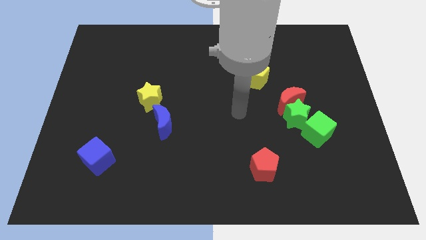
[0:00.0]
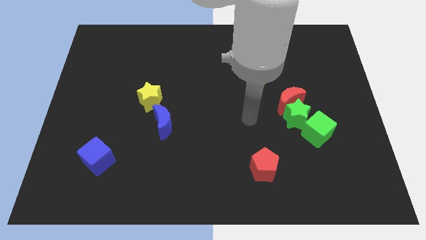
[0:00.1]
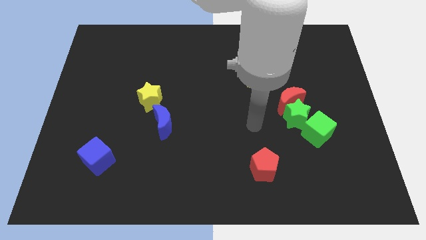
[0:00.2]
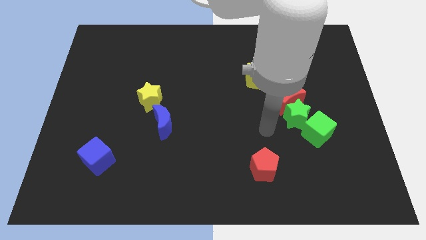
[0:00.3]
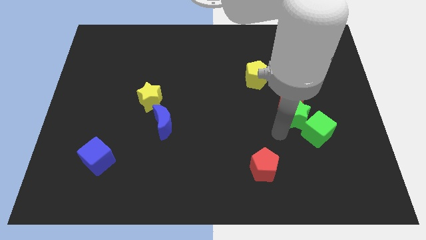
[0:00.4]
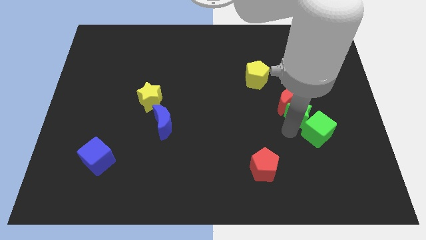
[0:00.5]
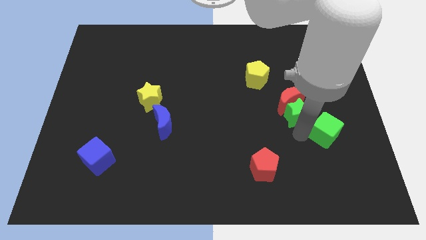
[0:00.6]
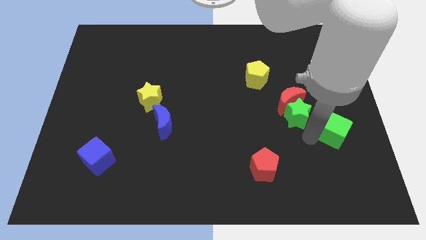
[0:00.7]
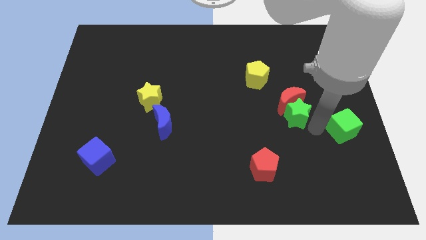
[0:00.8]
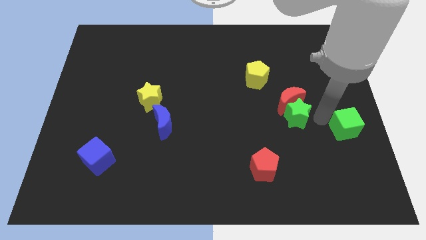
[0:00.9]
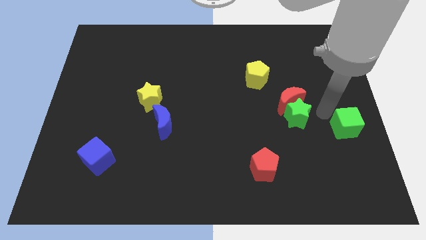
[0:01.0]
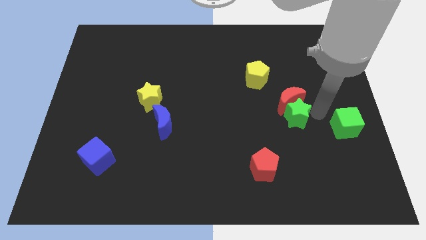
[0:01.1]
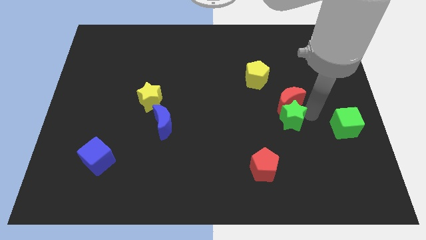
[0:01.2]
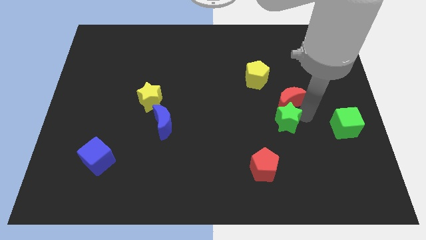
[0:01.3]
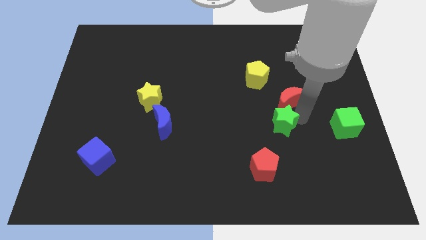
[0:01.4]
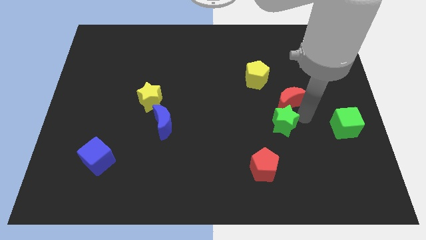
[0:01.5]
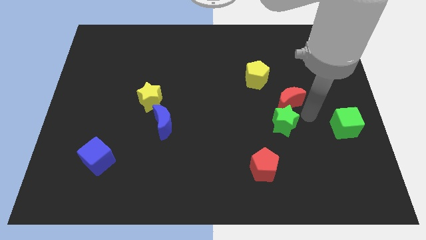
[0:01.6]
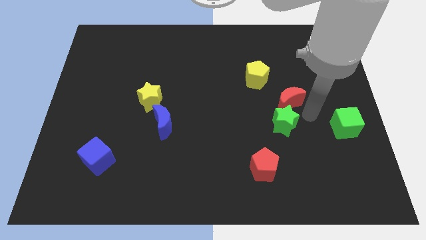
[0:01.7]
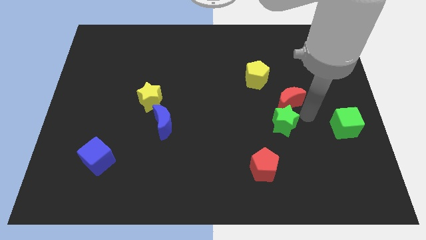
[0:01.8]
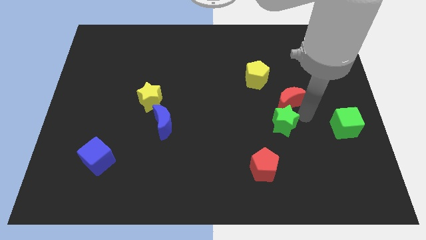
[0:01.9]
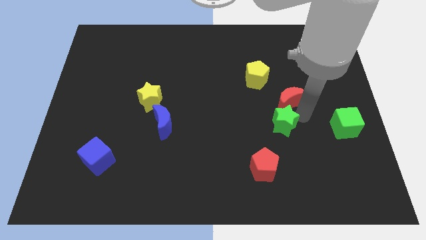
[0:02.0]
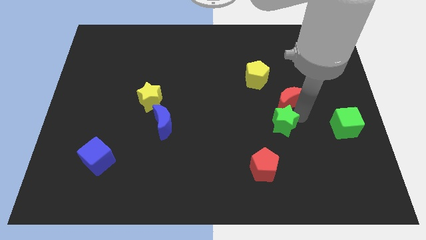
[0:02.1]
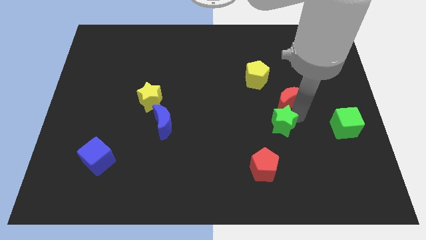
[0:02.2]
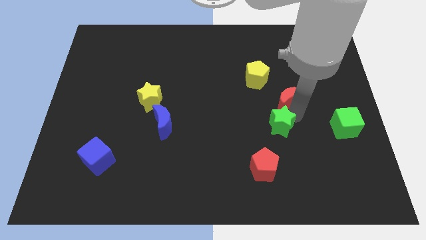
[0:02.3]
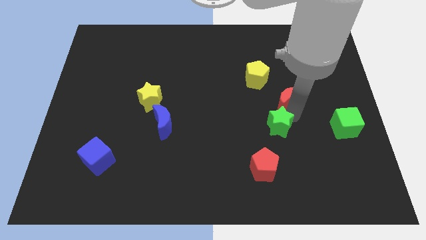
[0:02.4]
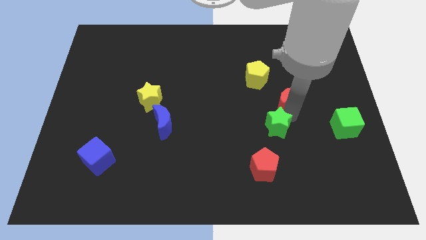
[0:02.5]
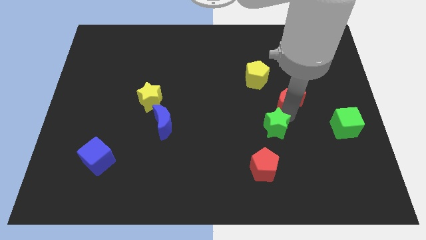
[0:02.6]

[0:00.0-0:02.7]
move the green star away from the red moon and green cube

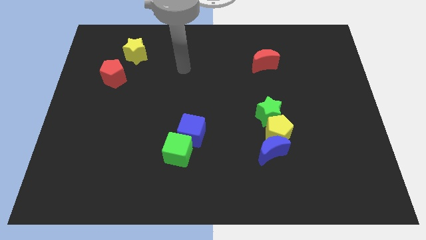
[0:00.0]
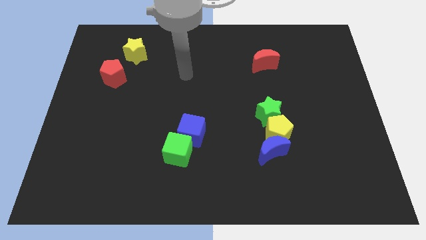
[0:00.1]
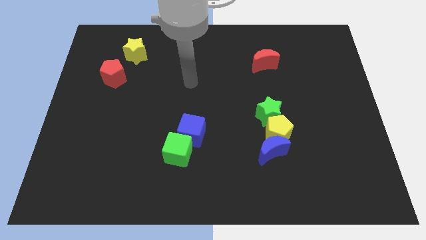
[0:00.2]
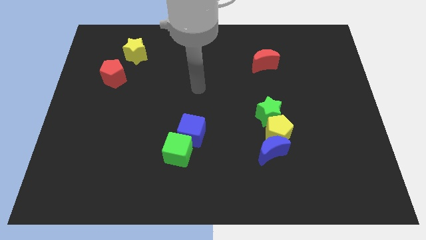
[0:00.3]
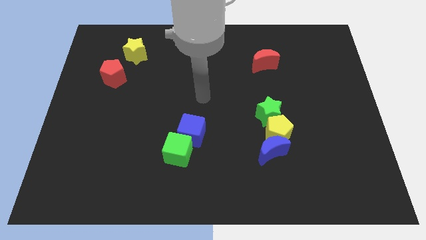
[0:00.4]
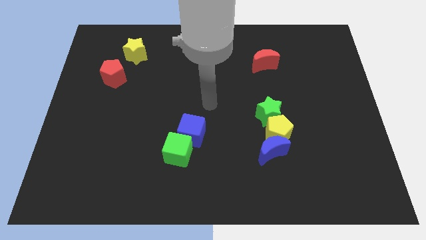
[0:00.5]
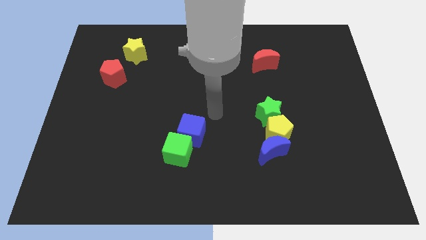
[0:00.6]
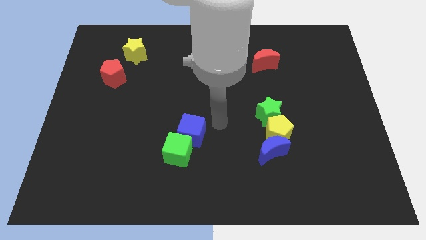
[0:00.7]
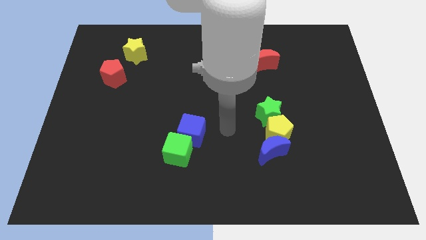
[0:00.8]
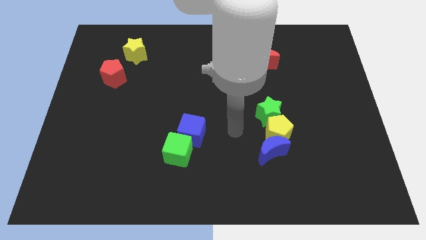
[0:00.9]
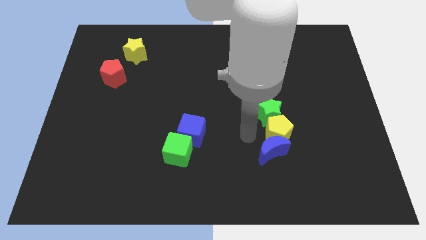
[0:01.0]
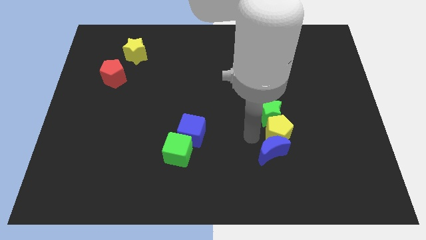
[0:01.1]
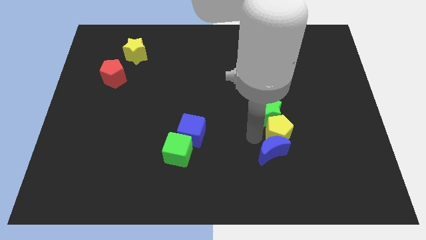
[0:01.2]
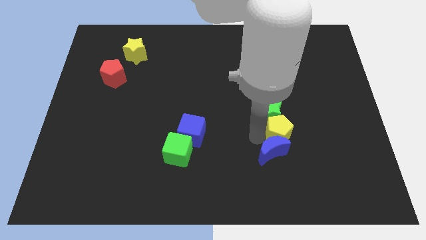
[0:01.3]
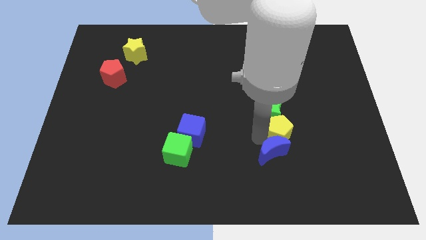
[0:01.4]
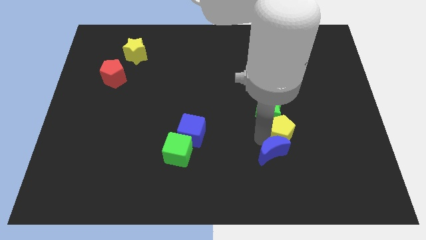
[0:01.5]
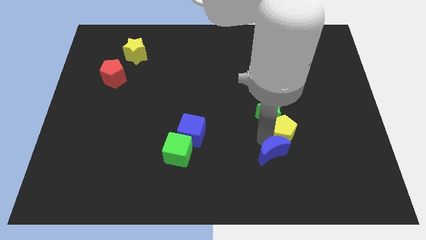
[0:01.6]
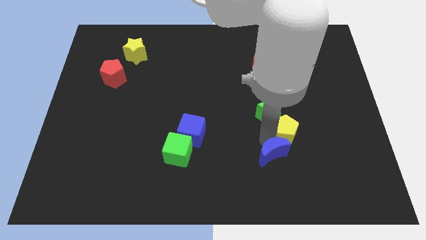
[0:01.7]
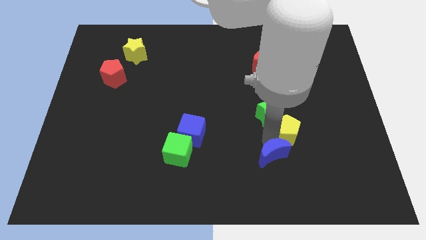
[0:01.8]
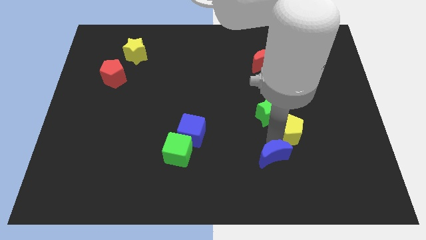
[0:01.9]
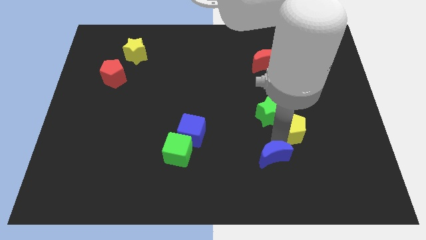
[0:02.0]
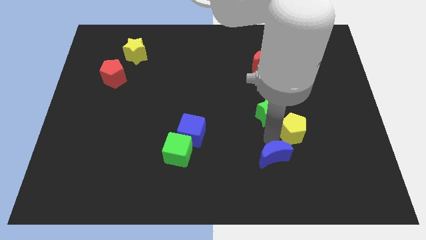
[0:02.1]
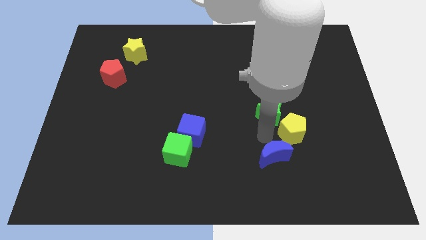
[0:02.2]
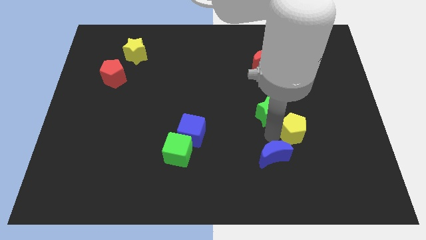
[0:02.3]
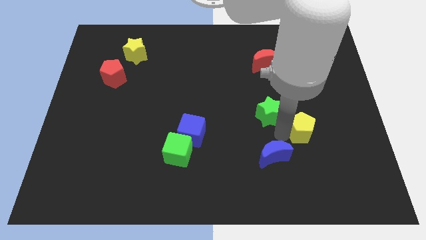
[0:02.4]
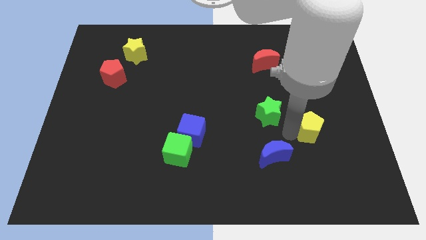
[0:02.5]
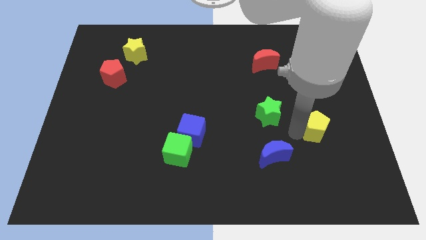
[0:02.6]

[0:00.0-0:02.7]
separate the yellow pentagon from the blue moon and green star

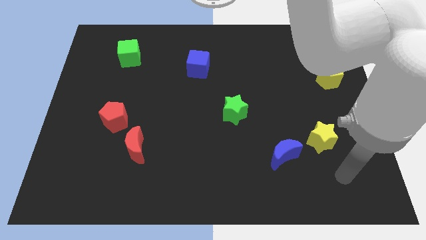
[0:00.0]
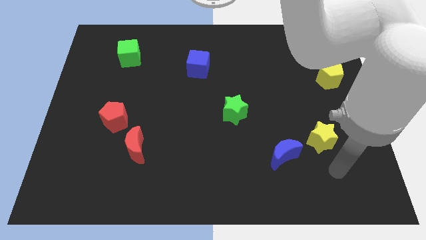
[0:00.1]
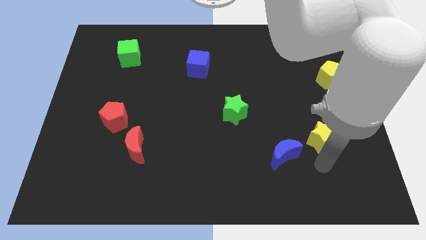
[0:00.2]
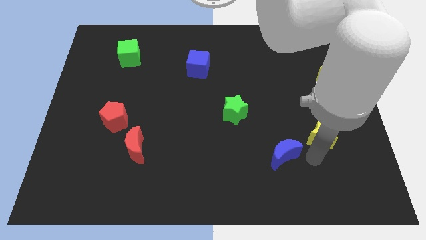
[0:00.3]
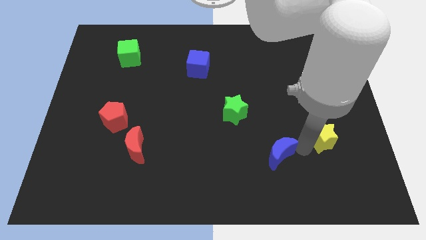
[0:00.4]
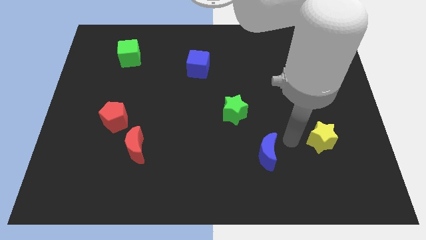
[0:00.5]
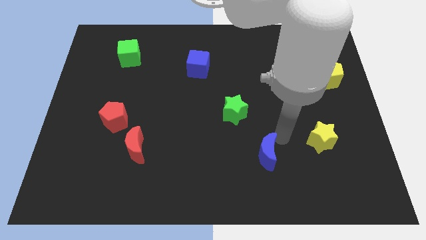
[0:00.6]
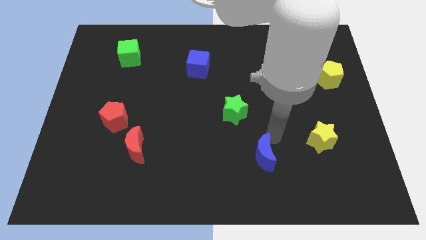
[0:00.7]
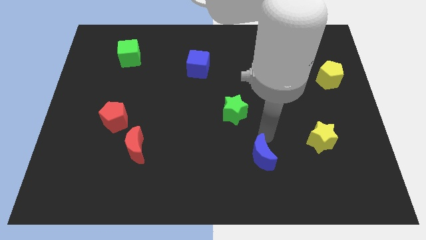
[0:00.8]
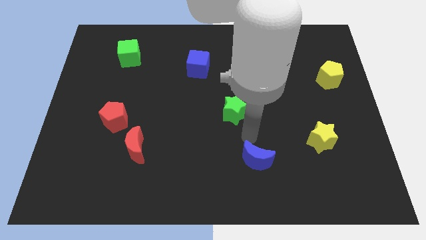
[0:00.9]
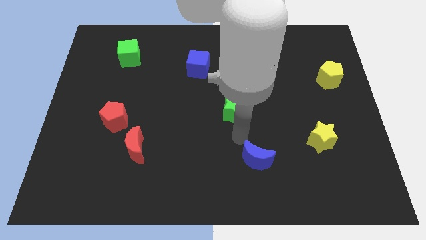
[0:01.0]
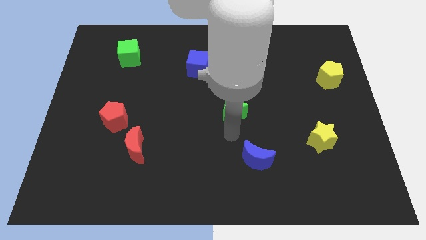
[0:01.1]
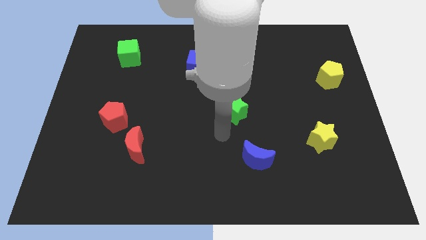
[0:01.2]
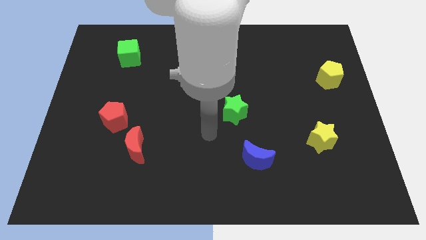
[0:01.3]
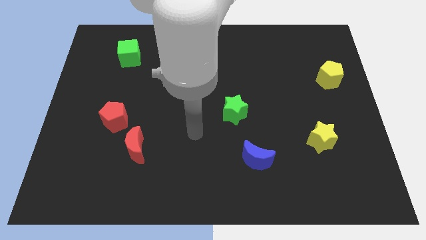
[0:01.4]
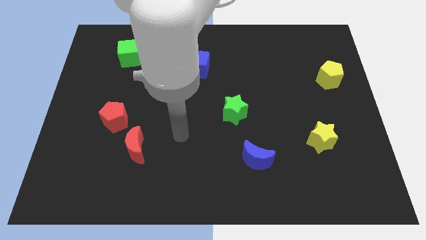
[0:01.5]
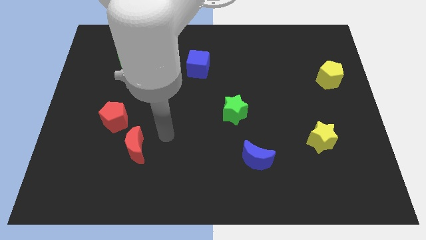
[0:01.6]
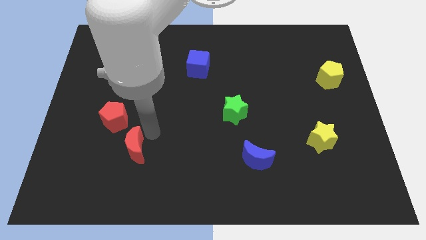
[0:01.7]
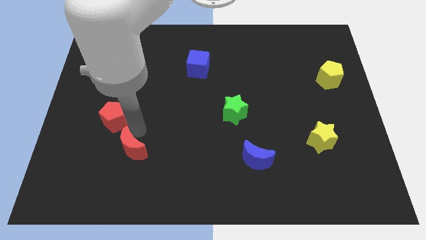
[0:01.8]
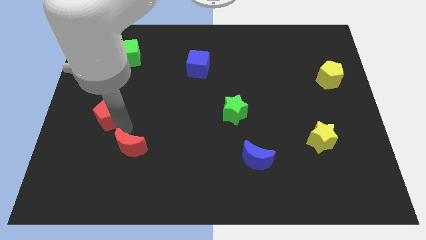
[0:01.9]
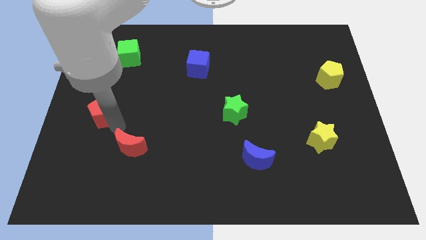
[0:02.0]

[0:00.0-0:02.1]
pull the red moon apart from the red pentagon

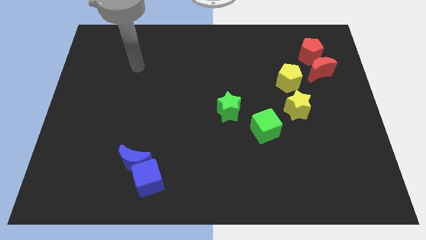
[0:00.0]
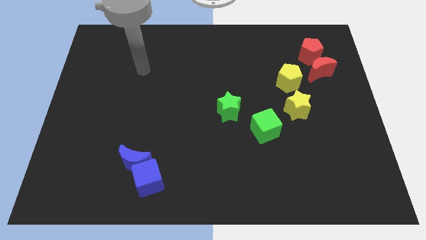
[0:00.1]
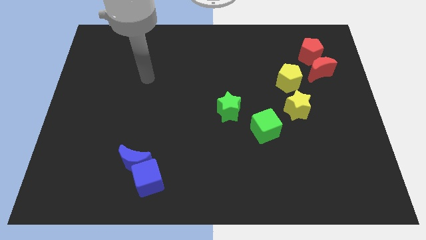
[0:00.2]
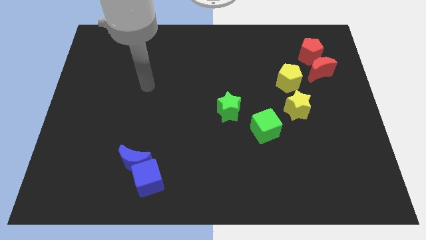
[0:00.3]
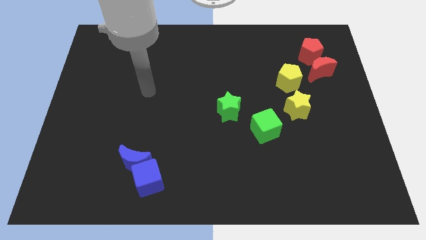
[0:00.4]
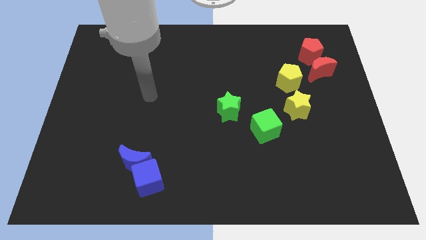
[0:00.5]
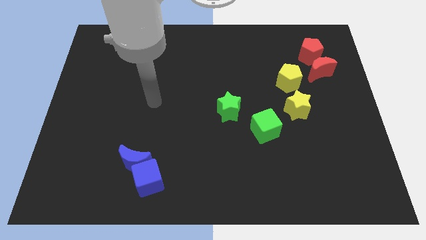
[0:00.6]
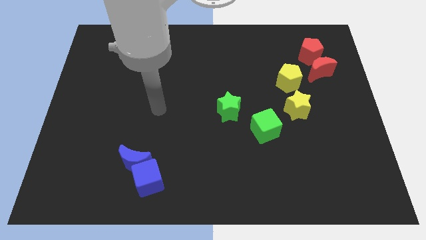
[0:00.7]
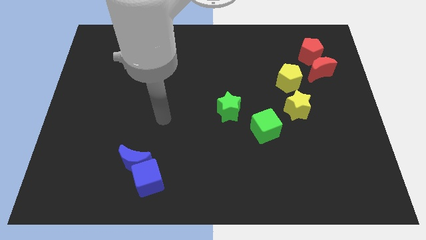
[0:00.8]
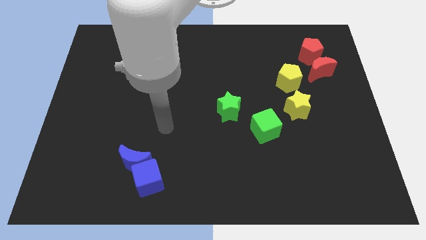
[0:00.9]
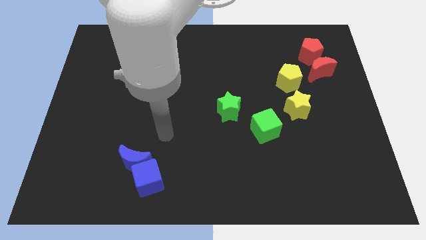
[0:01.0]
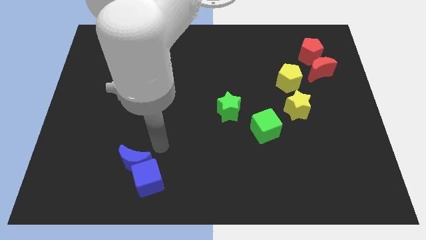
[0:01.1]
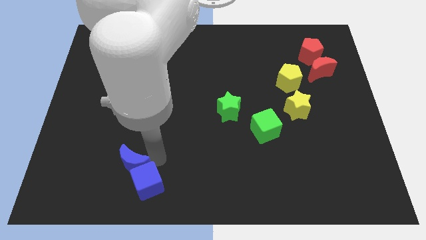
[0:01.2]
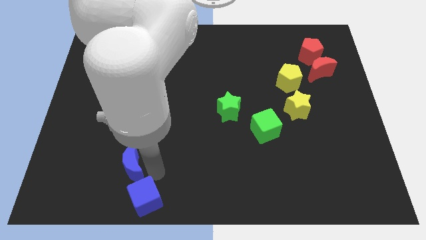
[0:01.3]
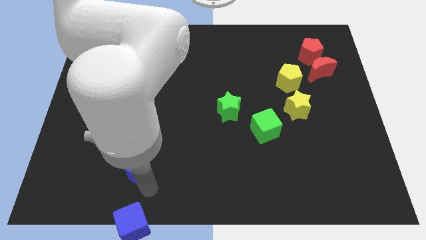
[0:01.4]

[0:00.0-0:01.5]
separate the blue moon from the blue cube

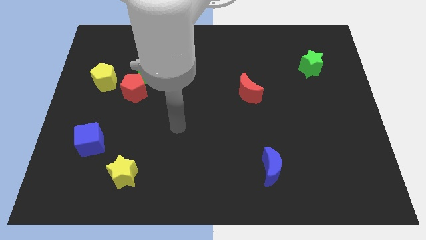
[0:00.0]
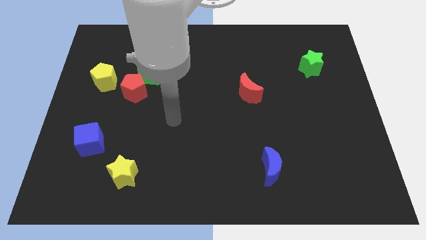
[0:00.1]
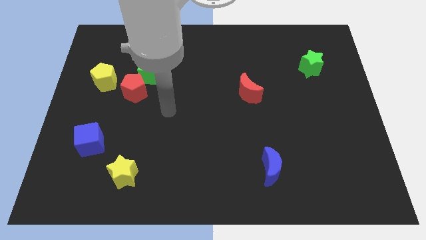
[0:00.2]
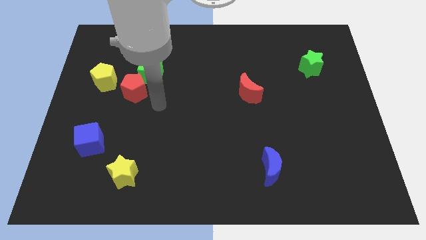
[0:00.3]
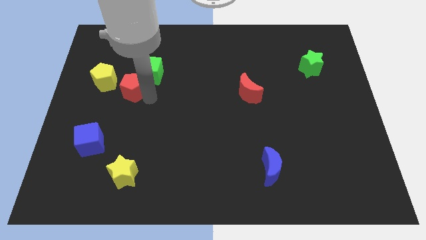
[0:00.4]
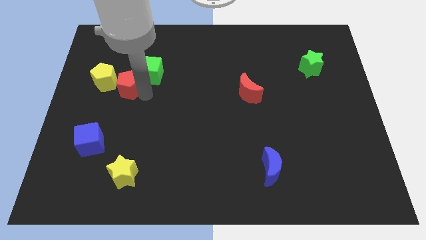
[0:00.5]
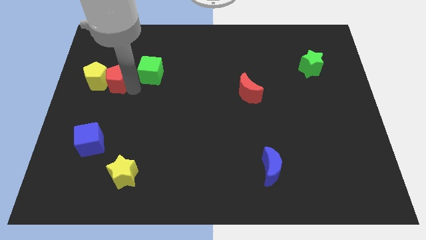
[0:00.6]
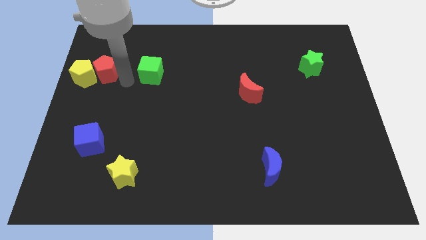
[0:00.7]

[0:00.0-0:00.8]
separate the green cube from the red pentagon
